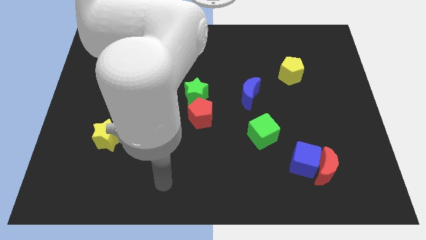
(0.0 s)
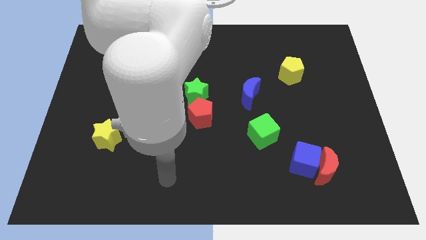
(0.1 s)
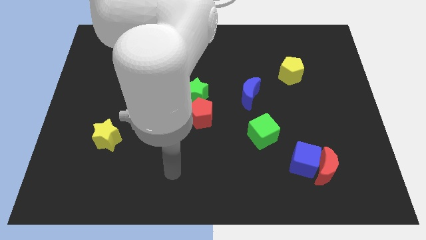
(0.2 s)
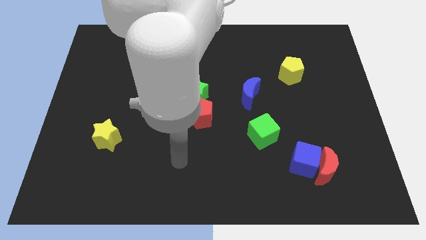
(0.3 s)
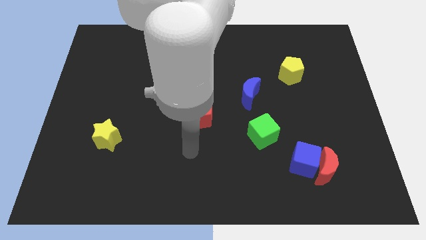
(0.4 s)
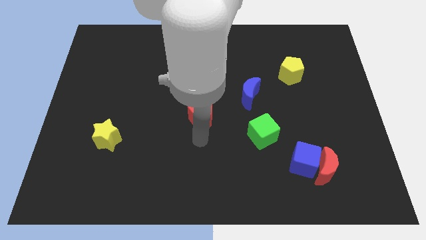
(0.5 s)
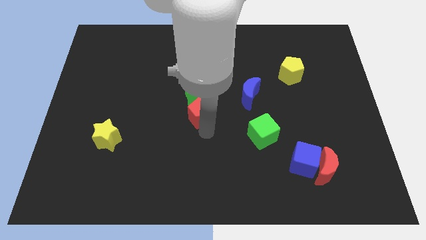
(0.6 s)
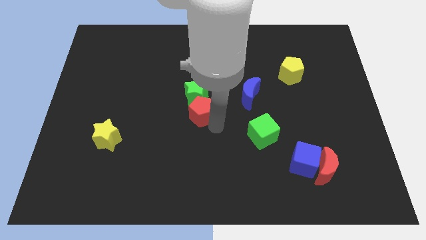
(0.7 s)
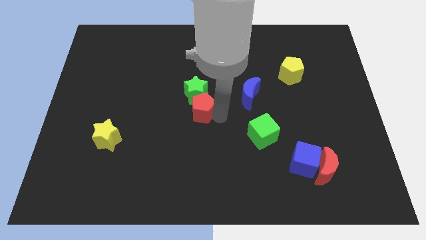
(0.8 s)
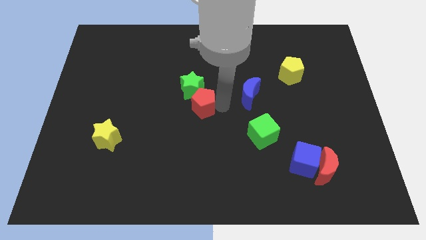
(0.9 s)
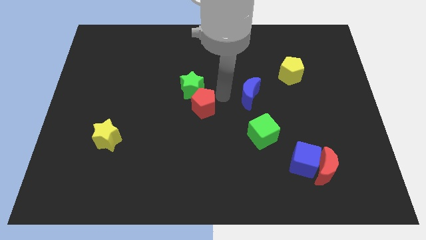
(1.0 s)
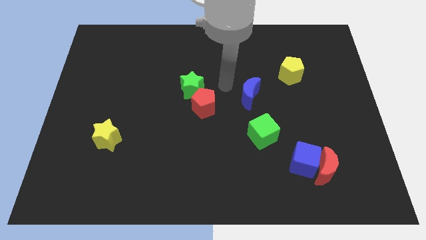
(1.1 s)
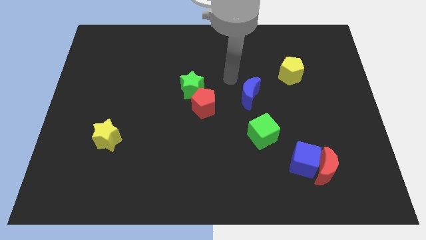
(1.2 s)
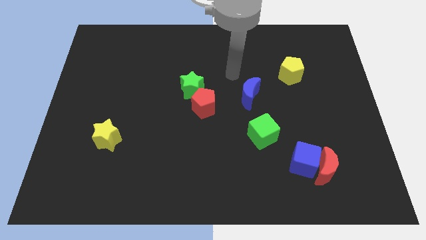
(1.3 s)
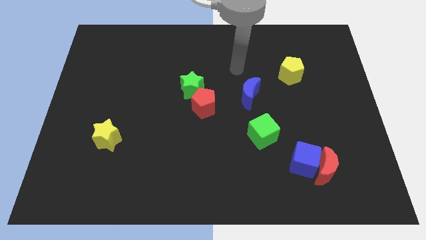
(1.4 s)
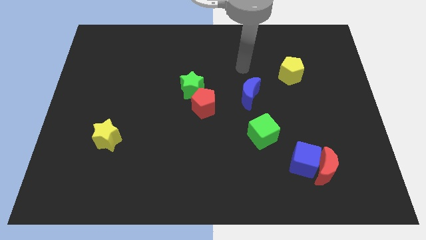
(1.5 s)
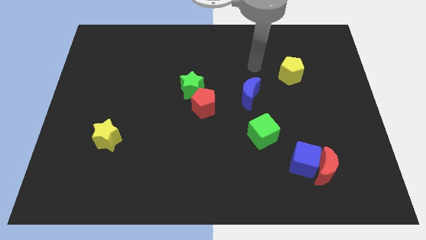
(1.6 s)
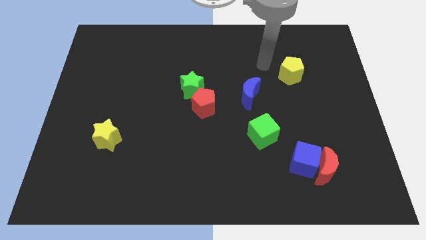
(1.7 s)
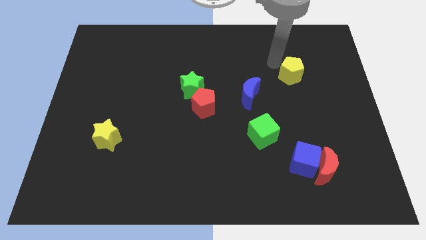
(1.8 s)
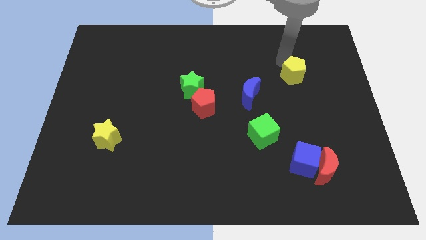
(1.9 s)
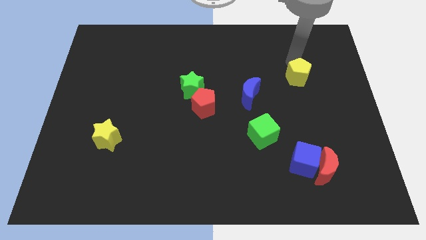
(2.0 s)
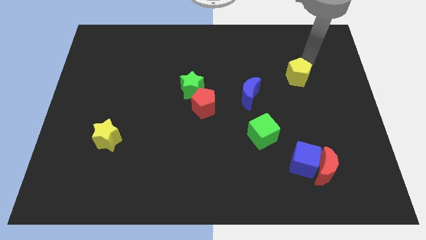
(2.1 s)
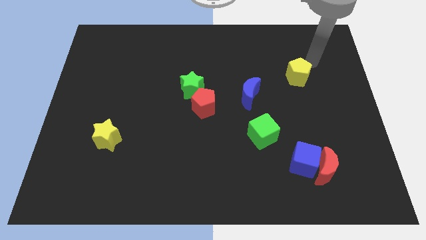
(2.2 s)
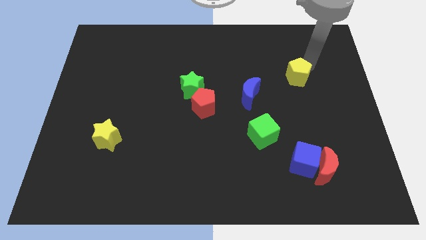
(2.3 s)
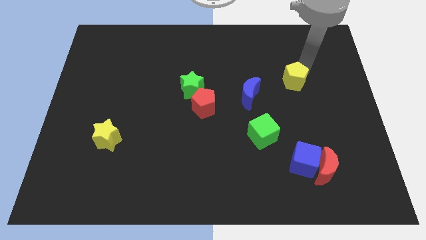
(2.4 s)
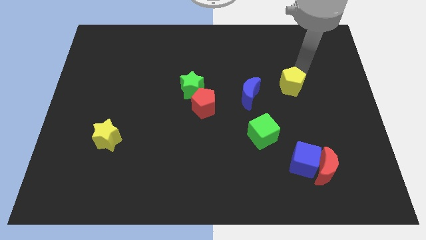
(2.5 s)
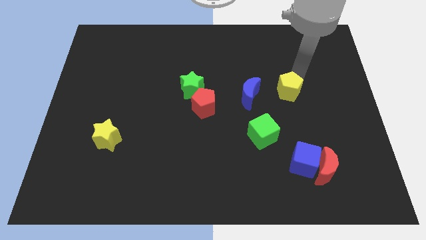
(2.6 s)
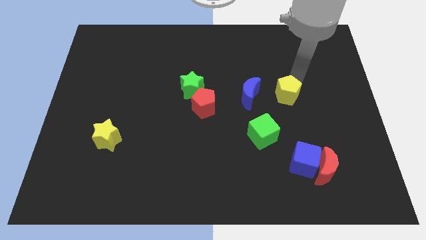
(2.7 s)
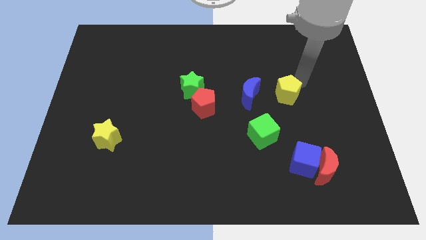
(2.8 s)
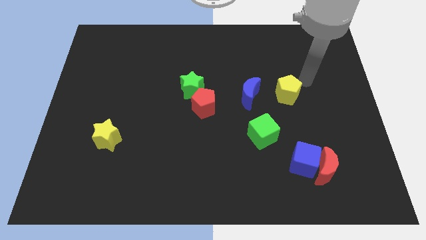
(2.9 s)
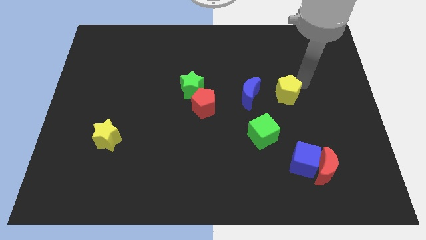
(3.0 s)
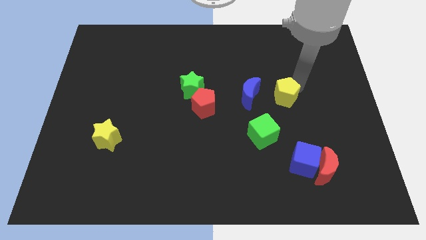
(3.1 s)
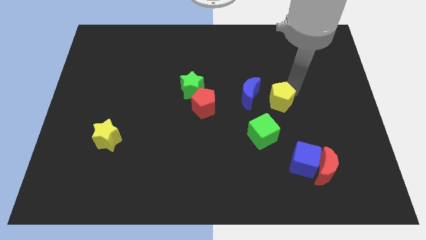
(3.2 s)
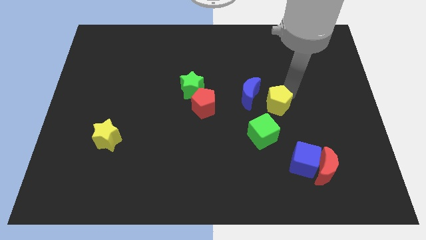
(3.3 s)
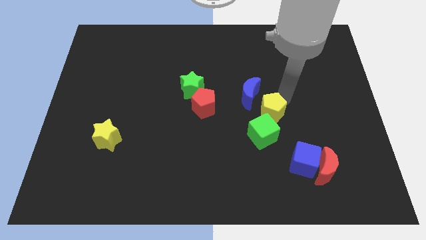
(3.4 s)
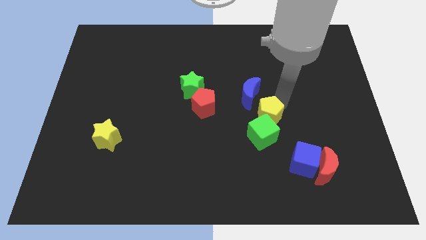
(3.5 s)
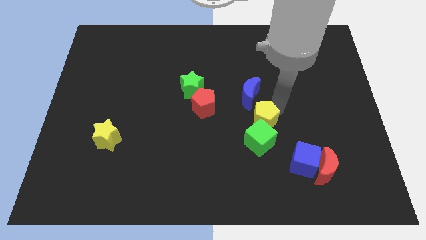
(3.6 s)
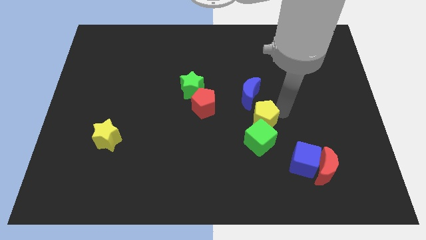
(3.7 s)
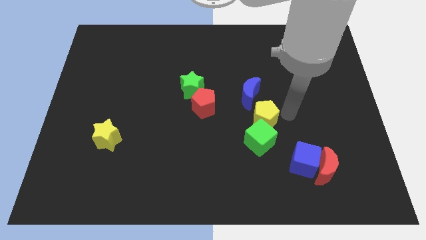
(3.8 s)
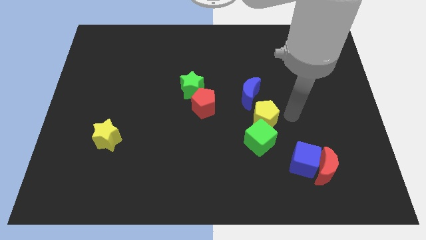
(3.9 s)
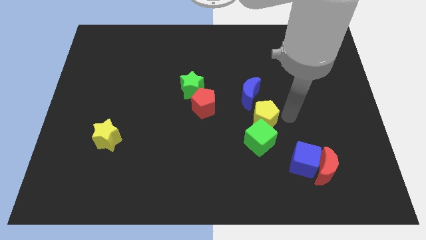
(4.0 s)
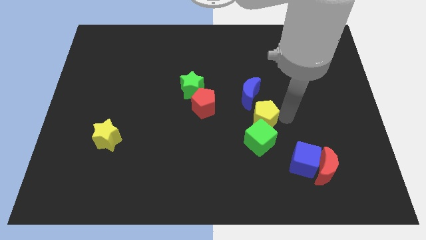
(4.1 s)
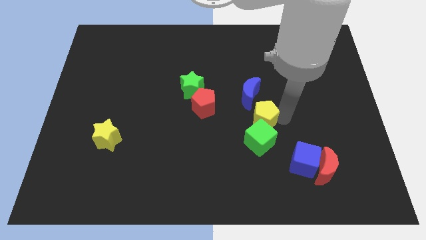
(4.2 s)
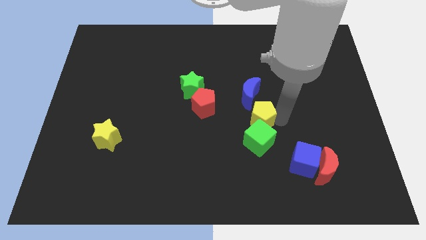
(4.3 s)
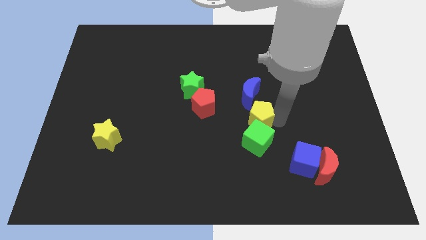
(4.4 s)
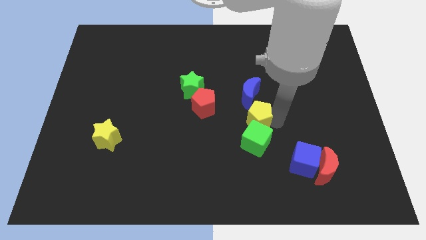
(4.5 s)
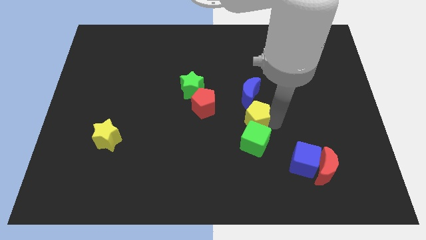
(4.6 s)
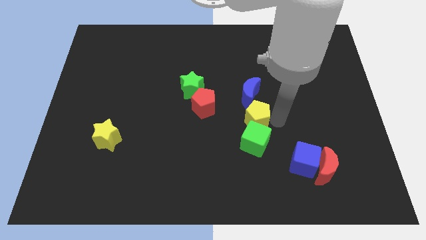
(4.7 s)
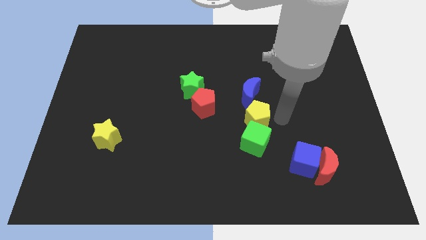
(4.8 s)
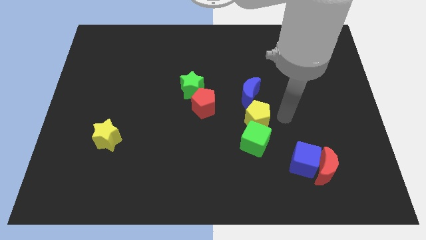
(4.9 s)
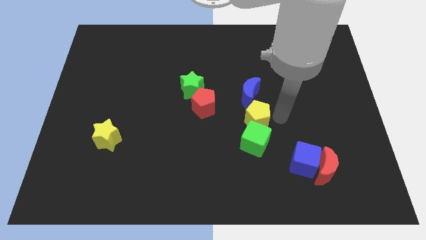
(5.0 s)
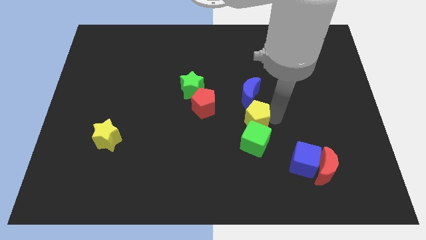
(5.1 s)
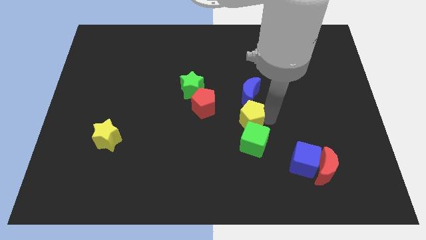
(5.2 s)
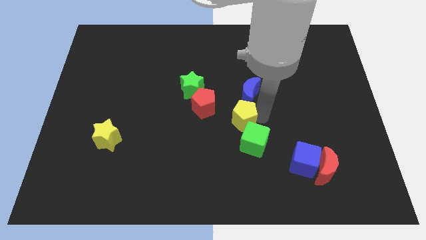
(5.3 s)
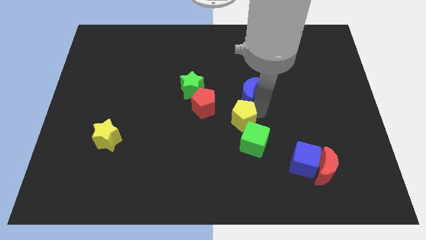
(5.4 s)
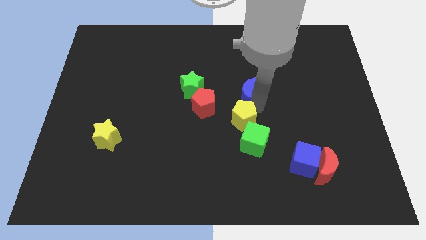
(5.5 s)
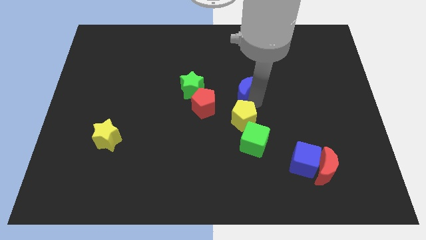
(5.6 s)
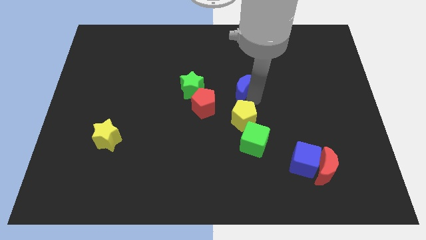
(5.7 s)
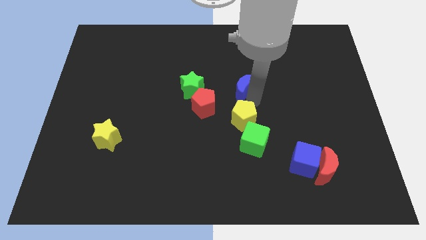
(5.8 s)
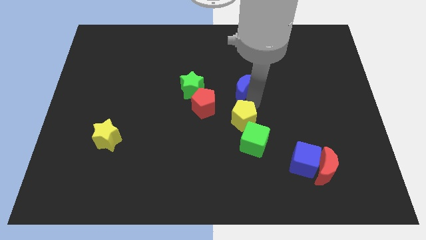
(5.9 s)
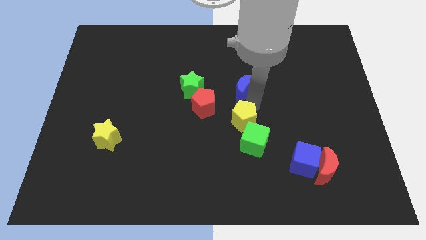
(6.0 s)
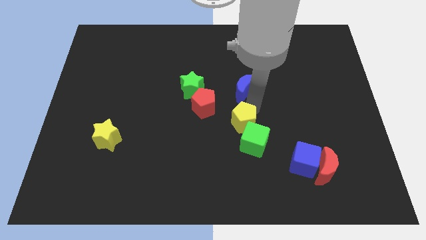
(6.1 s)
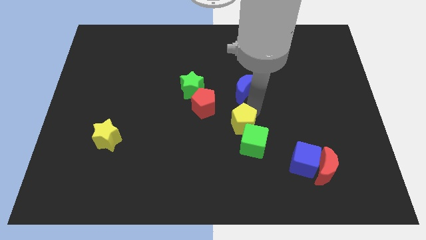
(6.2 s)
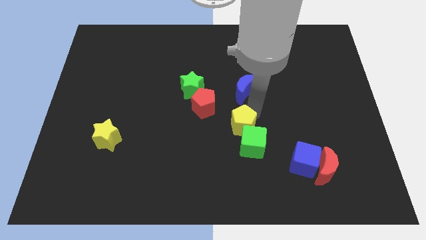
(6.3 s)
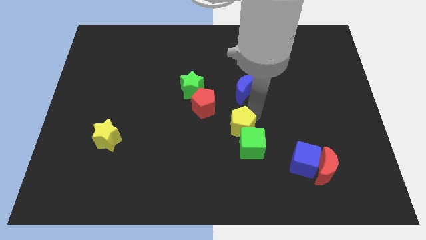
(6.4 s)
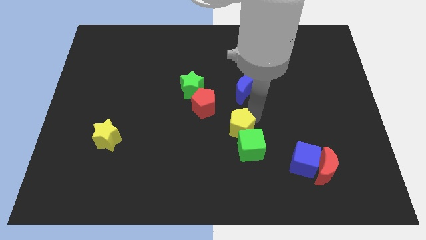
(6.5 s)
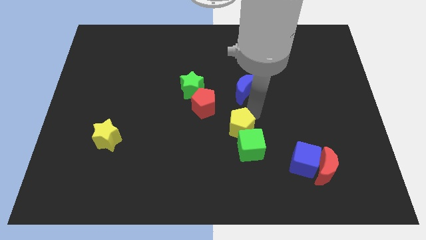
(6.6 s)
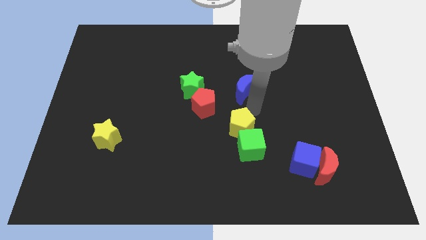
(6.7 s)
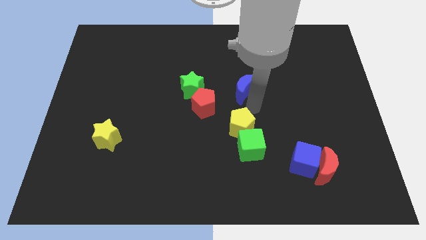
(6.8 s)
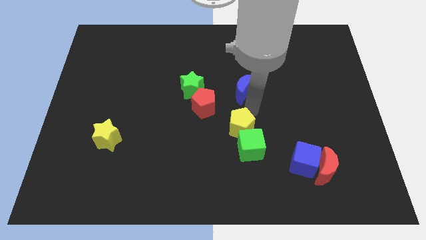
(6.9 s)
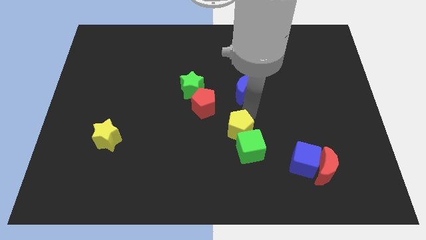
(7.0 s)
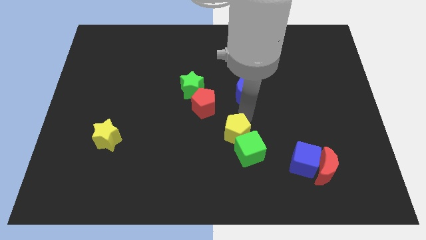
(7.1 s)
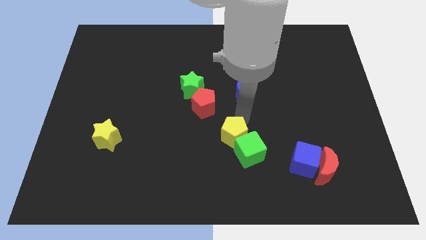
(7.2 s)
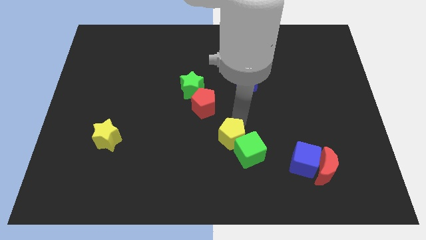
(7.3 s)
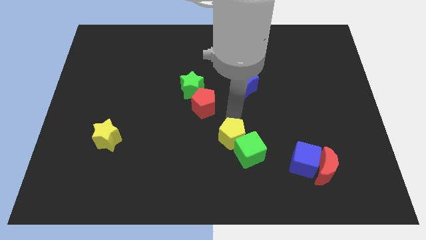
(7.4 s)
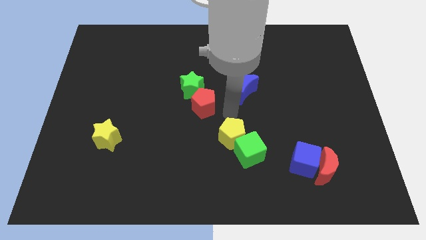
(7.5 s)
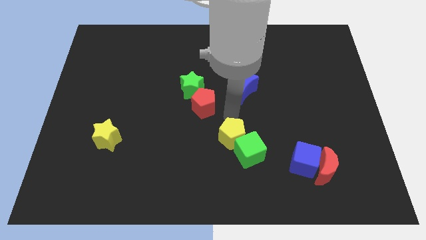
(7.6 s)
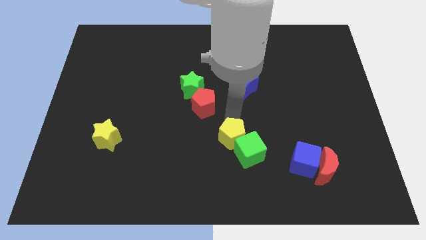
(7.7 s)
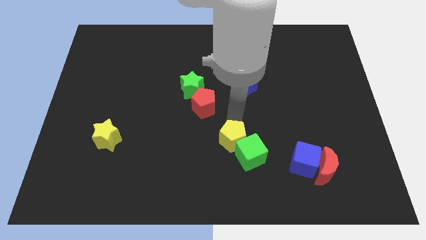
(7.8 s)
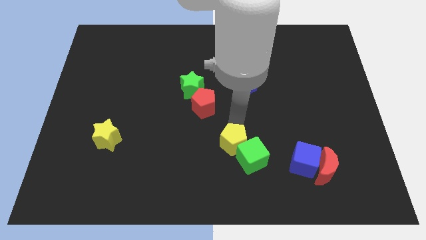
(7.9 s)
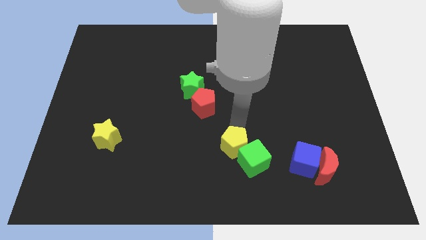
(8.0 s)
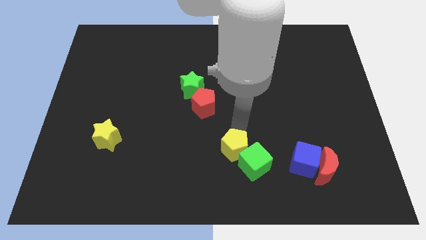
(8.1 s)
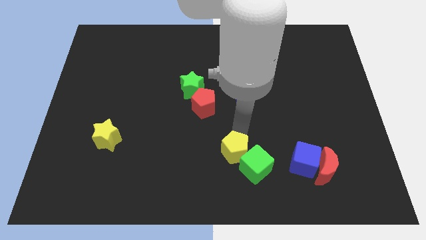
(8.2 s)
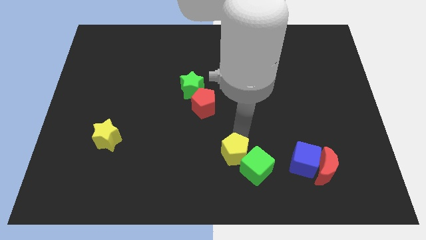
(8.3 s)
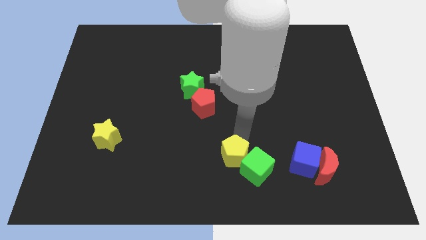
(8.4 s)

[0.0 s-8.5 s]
slide the yellow pentagon to the bottom
